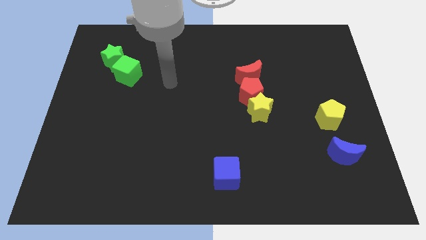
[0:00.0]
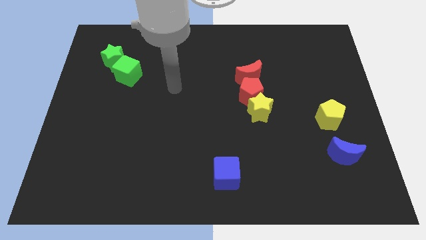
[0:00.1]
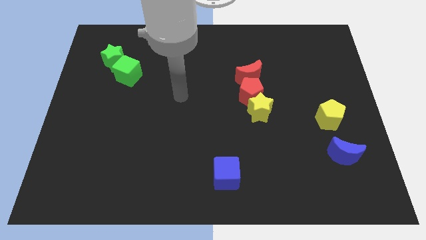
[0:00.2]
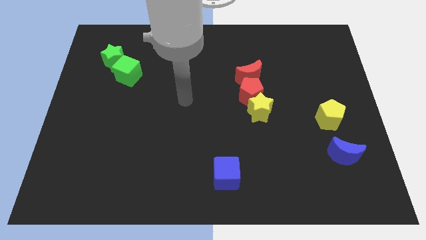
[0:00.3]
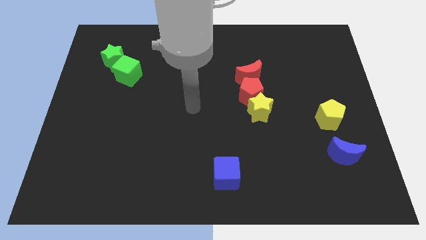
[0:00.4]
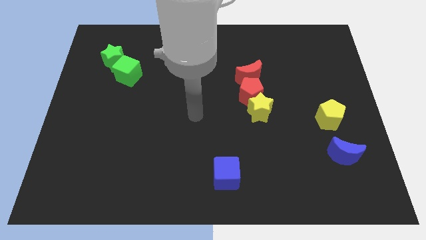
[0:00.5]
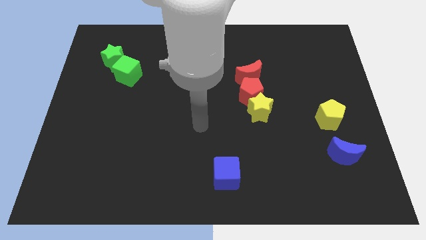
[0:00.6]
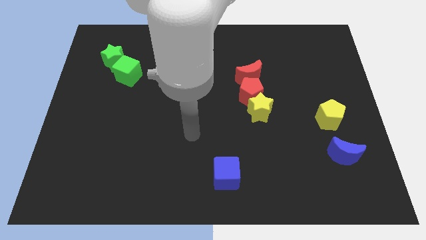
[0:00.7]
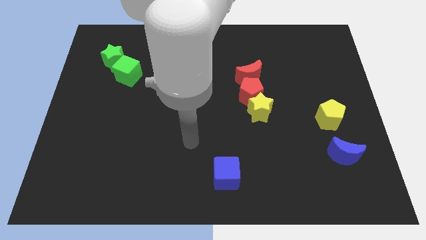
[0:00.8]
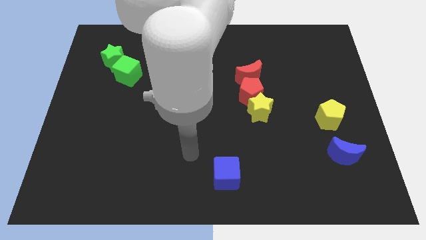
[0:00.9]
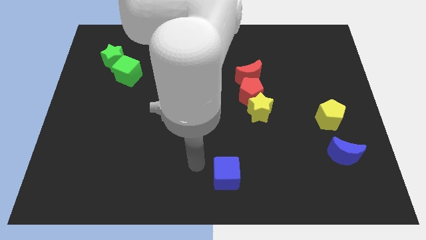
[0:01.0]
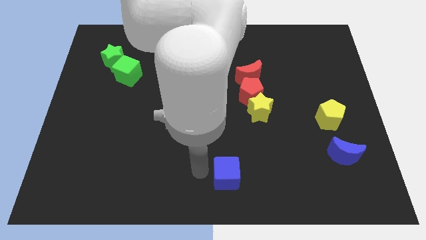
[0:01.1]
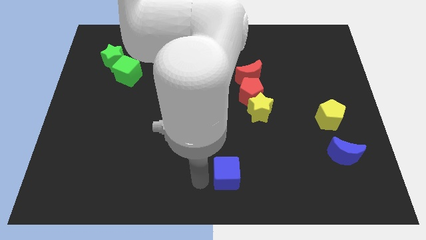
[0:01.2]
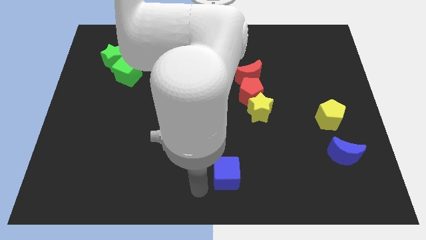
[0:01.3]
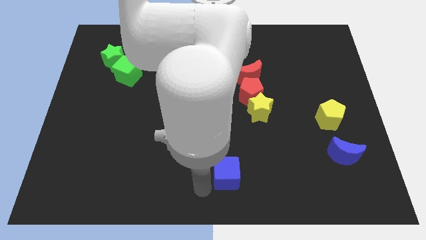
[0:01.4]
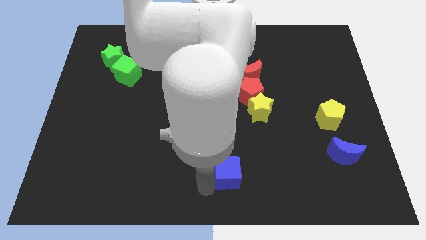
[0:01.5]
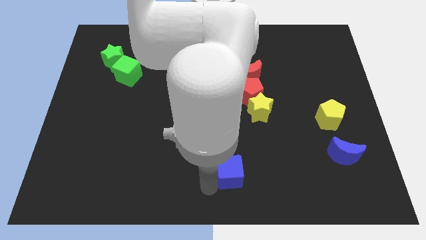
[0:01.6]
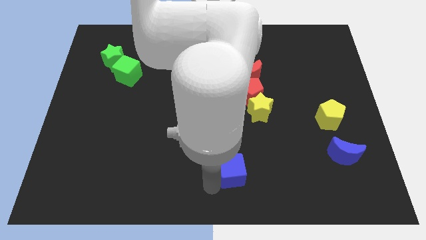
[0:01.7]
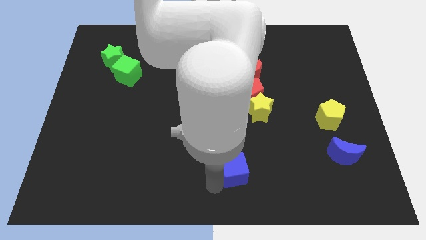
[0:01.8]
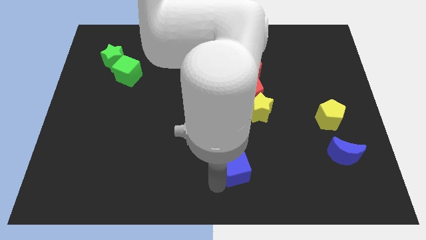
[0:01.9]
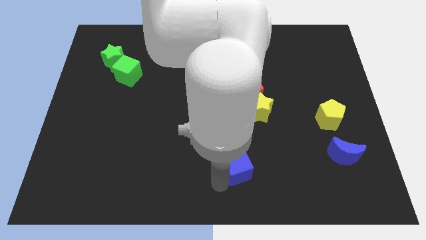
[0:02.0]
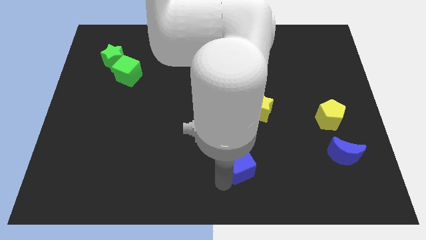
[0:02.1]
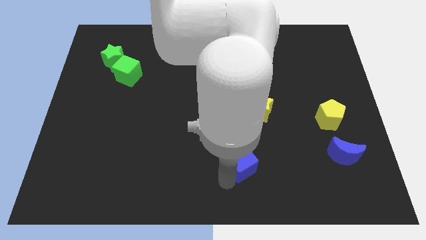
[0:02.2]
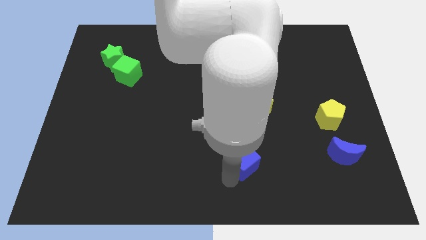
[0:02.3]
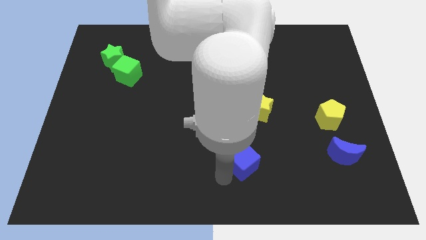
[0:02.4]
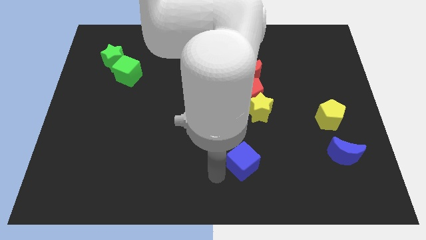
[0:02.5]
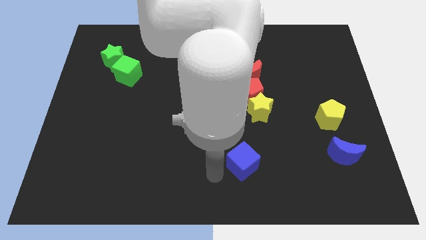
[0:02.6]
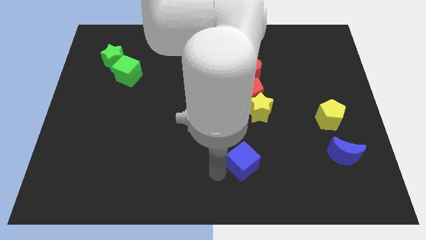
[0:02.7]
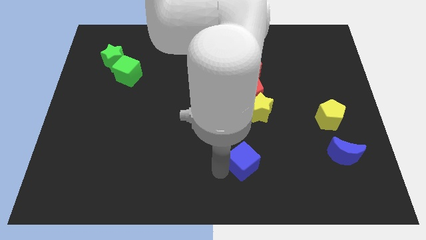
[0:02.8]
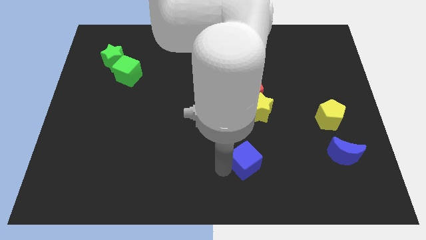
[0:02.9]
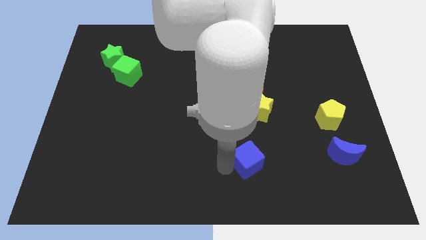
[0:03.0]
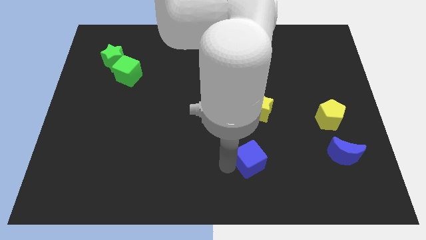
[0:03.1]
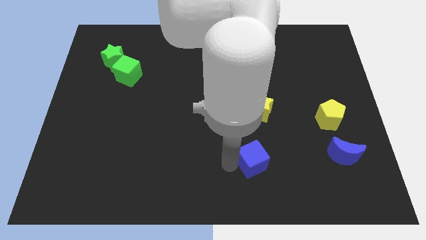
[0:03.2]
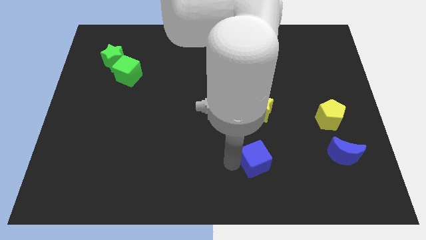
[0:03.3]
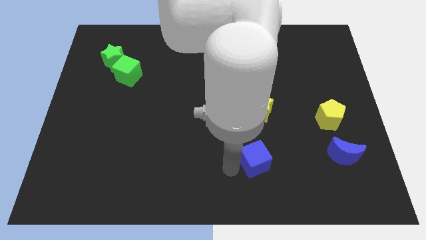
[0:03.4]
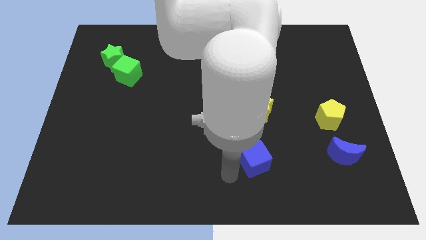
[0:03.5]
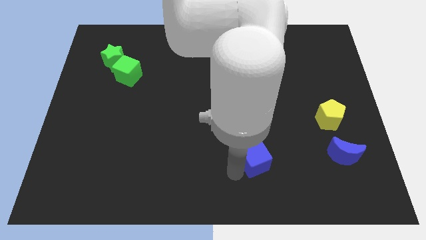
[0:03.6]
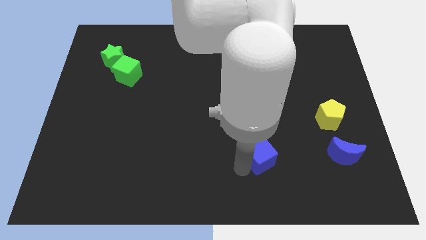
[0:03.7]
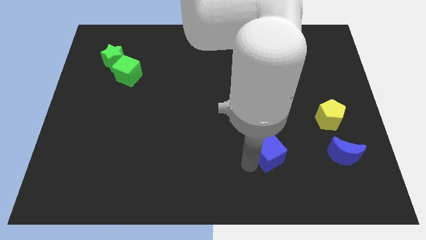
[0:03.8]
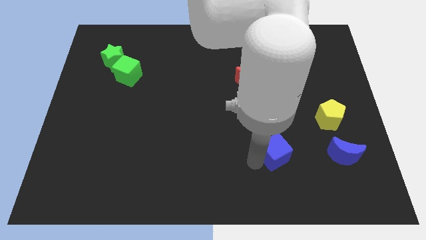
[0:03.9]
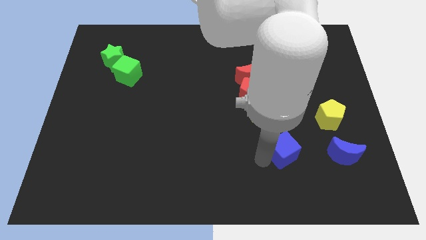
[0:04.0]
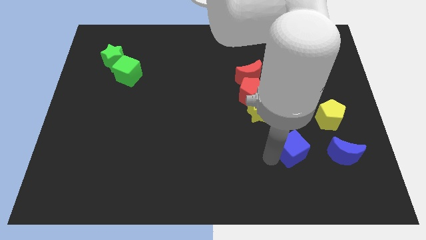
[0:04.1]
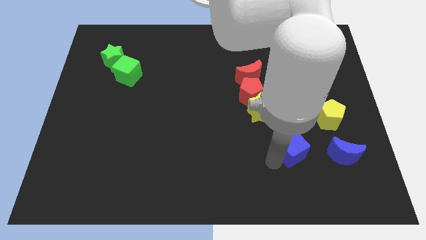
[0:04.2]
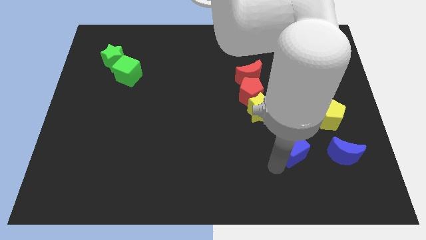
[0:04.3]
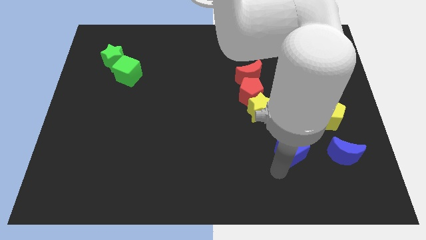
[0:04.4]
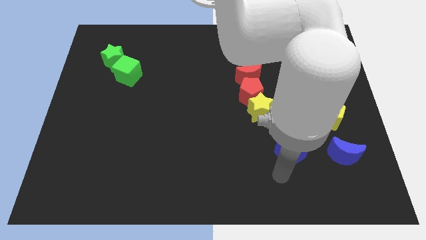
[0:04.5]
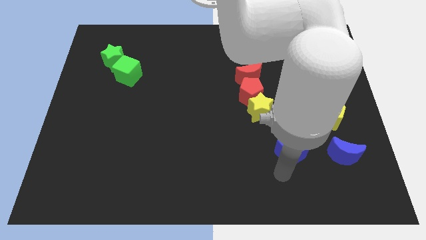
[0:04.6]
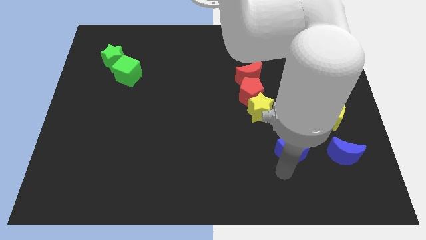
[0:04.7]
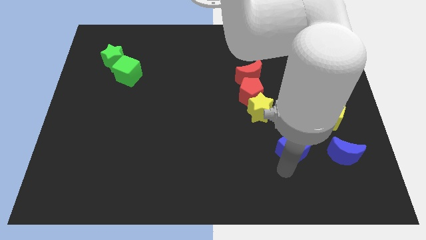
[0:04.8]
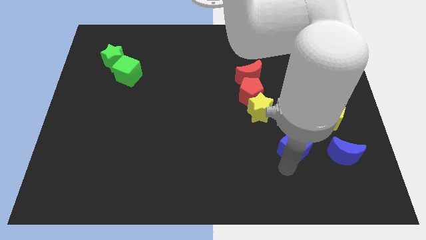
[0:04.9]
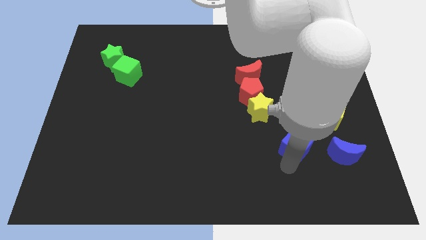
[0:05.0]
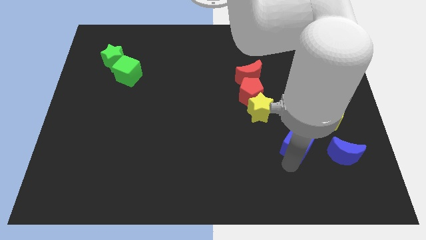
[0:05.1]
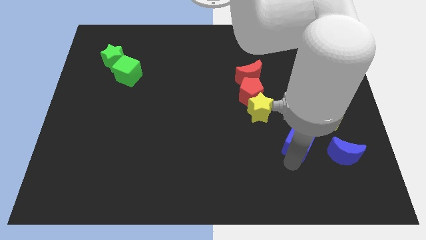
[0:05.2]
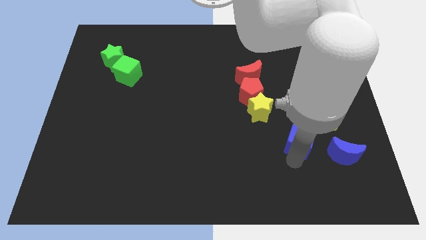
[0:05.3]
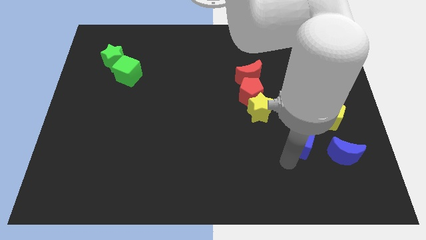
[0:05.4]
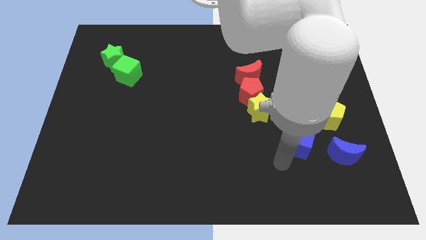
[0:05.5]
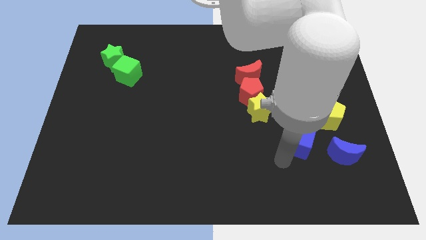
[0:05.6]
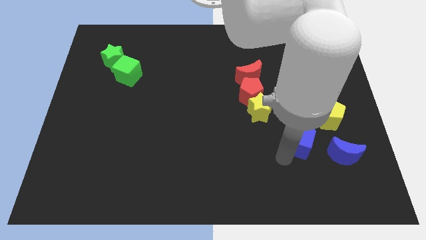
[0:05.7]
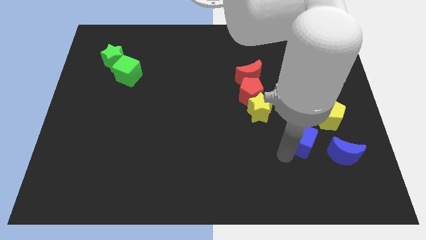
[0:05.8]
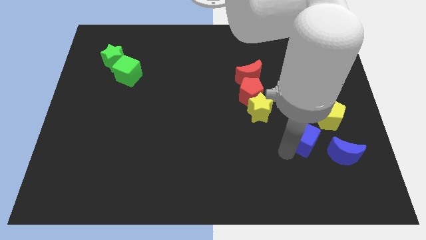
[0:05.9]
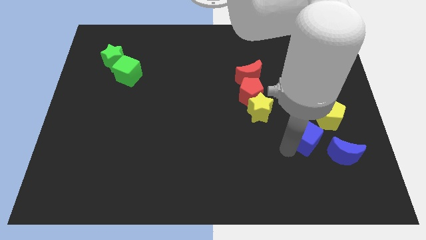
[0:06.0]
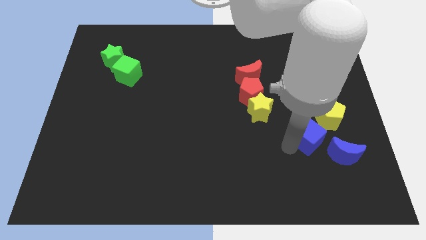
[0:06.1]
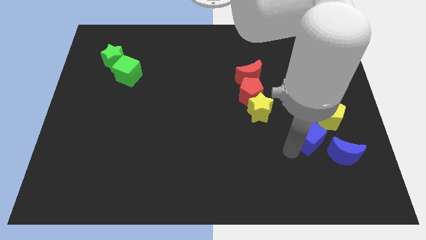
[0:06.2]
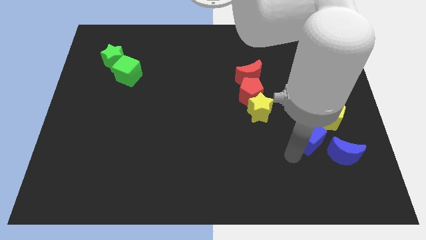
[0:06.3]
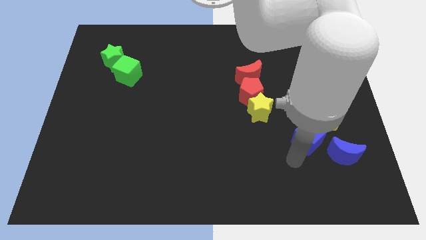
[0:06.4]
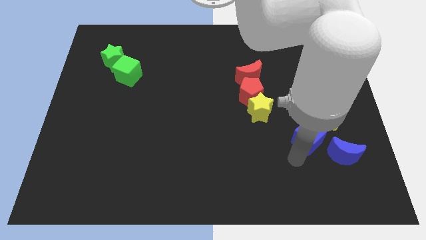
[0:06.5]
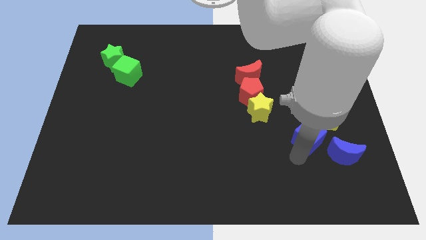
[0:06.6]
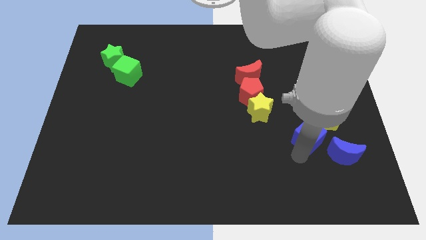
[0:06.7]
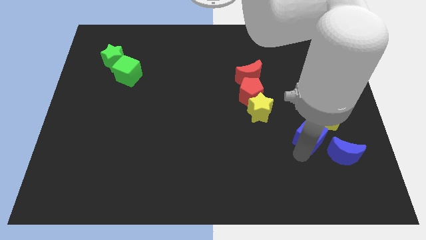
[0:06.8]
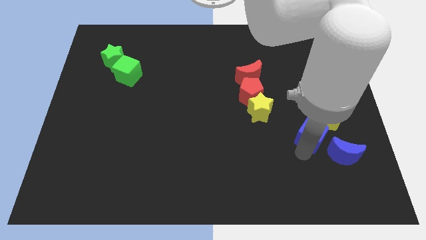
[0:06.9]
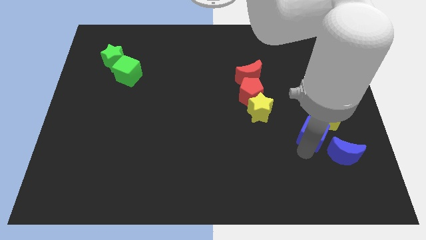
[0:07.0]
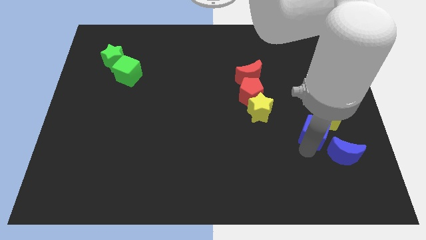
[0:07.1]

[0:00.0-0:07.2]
push the blue cube close to the yellow pentagon
